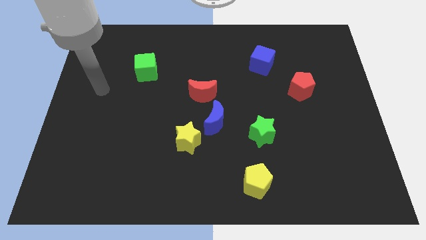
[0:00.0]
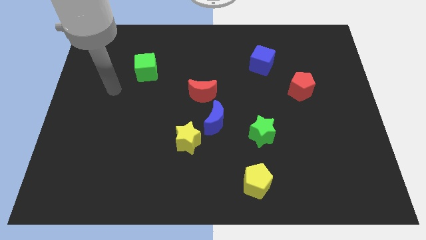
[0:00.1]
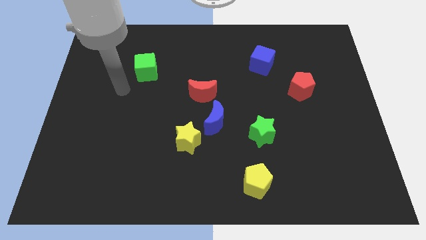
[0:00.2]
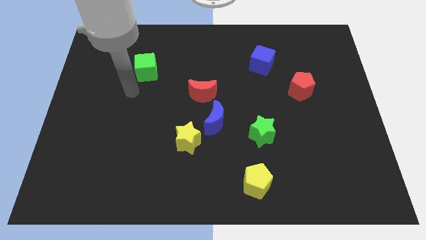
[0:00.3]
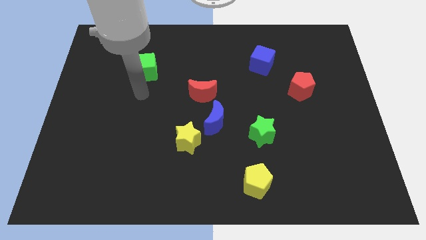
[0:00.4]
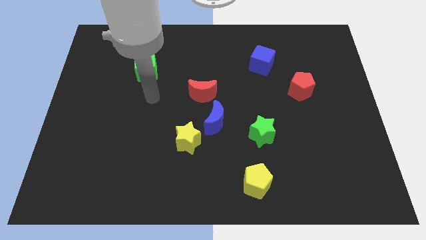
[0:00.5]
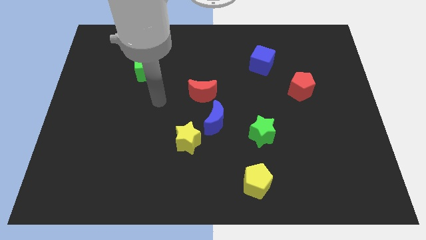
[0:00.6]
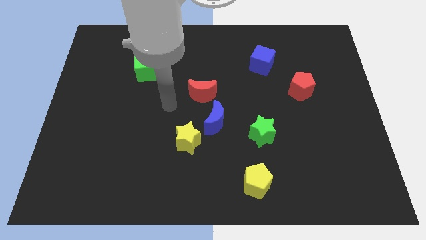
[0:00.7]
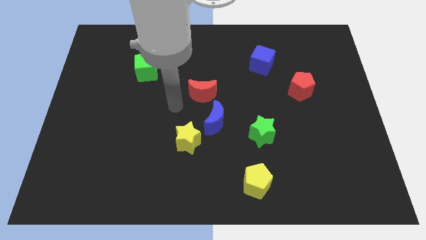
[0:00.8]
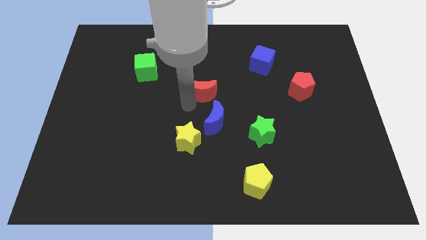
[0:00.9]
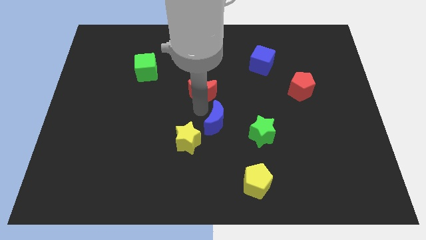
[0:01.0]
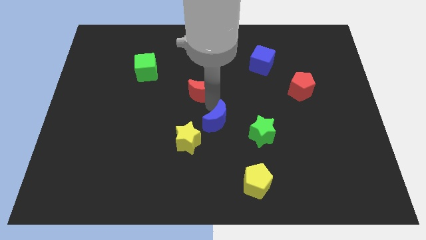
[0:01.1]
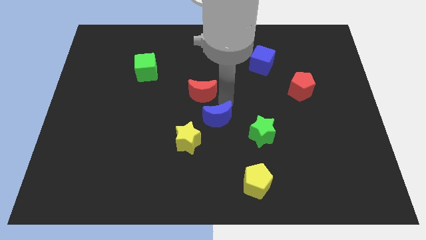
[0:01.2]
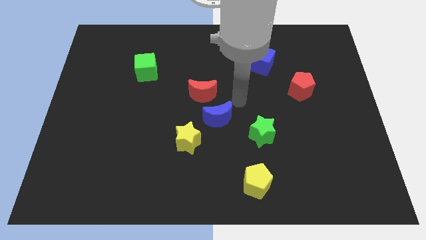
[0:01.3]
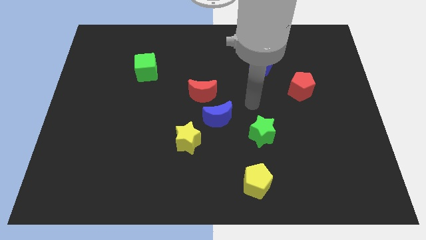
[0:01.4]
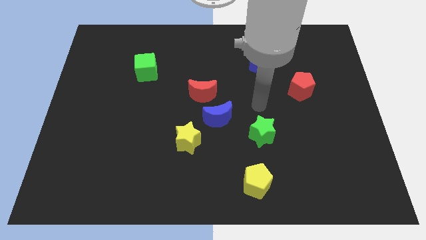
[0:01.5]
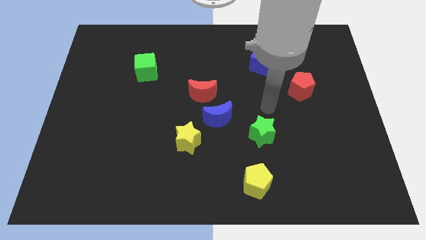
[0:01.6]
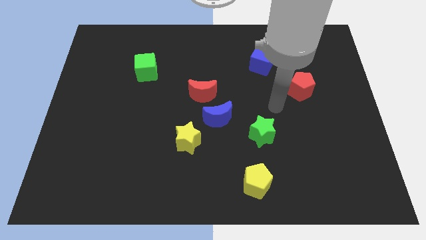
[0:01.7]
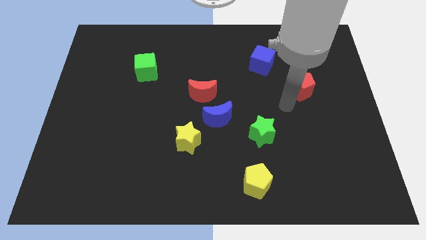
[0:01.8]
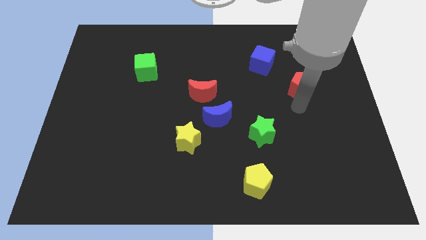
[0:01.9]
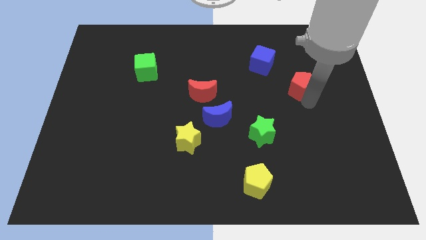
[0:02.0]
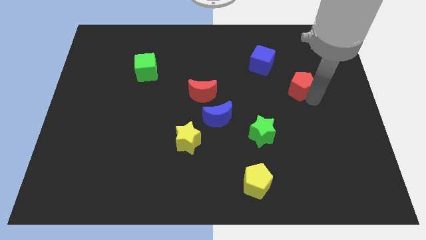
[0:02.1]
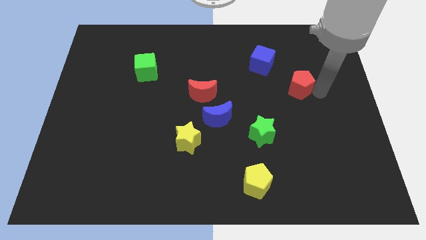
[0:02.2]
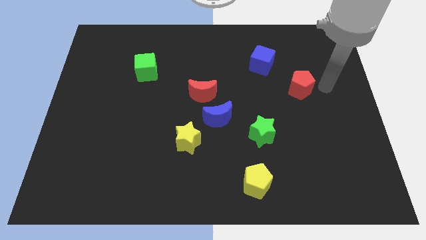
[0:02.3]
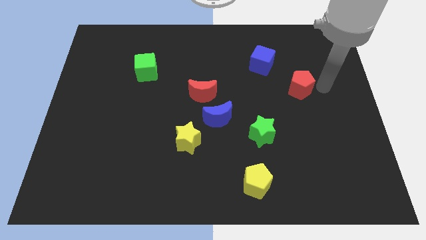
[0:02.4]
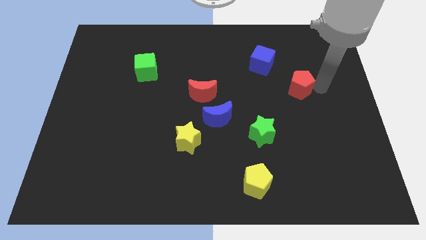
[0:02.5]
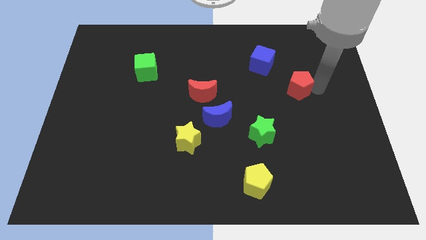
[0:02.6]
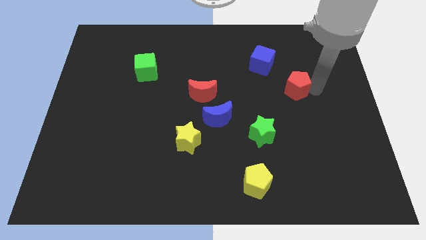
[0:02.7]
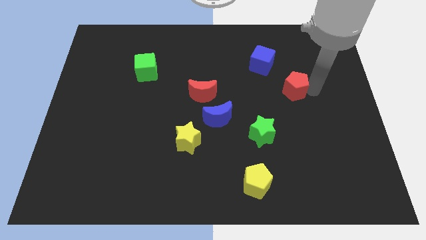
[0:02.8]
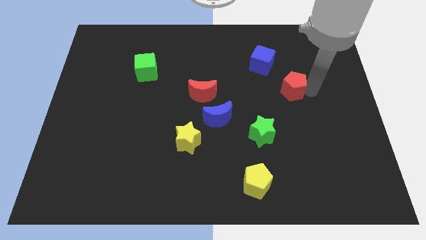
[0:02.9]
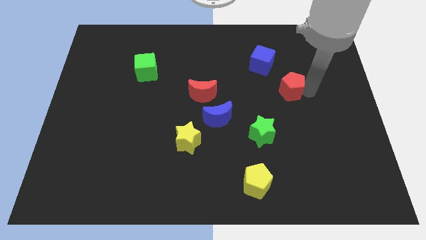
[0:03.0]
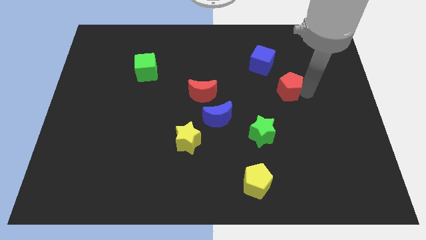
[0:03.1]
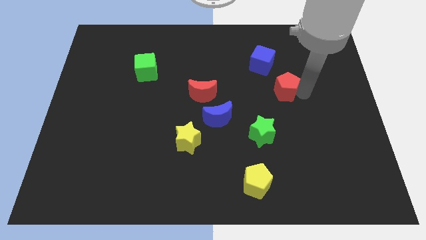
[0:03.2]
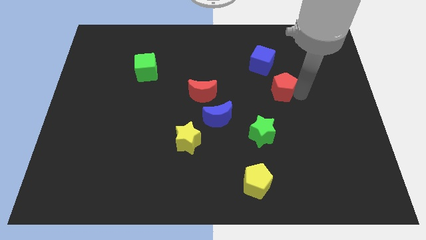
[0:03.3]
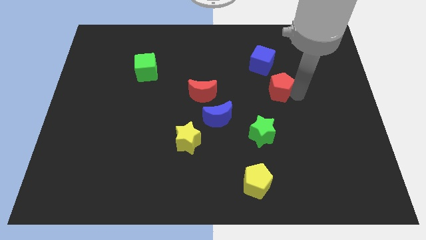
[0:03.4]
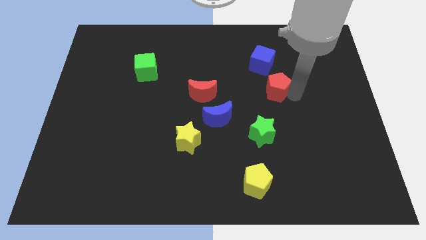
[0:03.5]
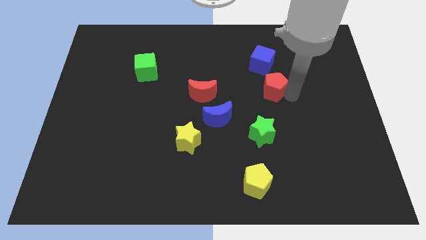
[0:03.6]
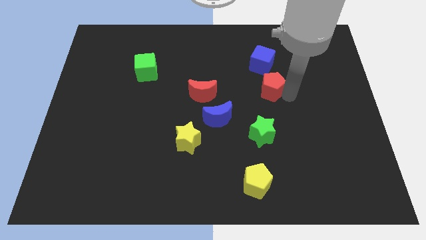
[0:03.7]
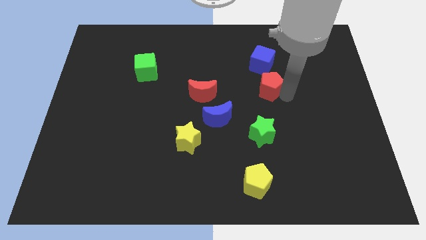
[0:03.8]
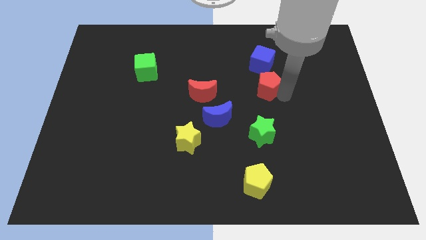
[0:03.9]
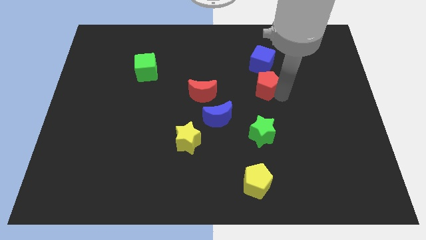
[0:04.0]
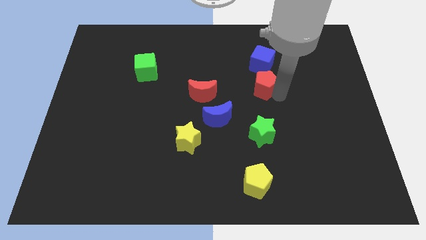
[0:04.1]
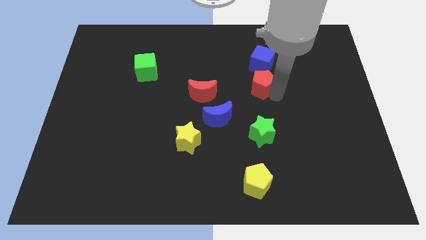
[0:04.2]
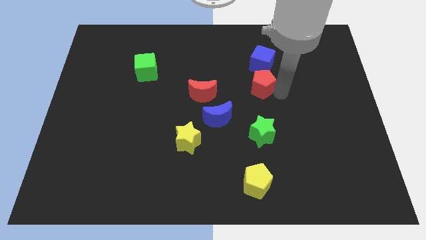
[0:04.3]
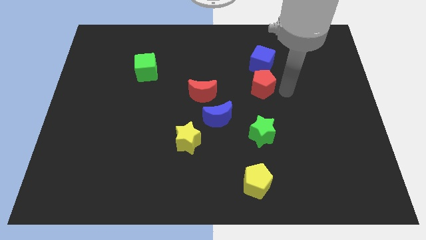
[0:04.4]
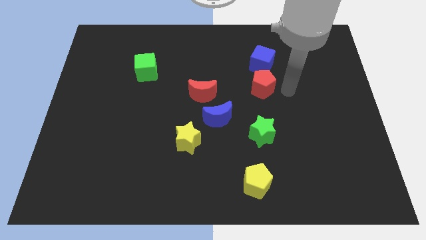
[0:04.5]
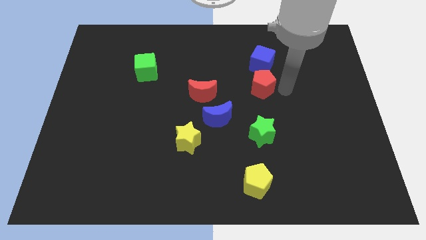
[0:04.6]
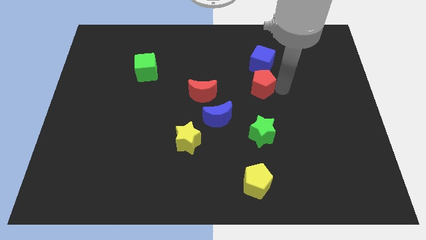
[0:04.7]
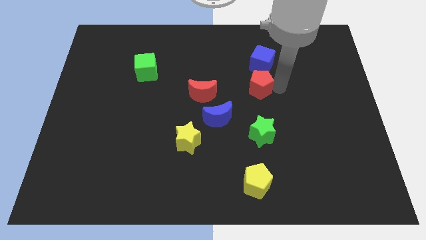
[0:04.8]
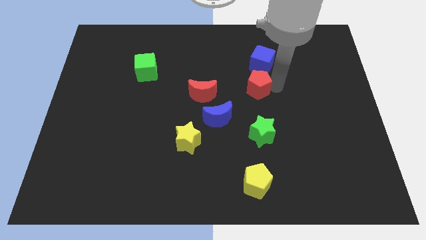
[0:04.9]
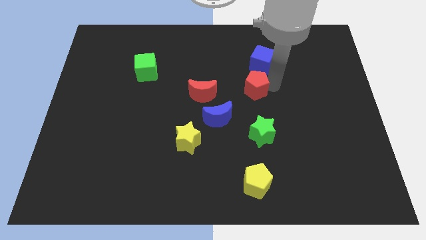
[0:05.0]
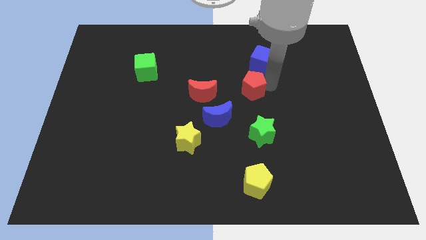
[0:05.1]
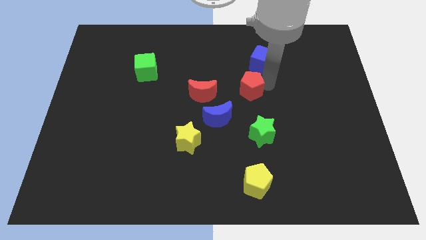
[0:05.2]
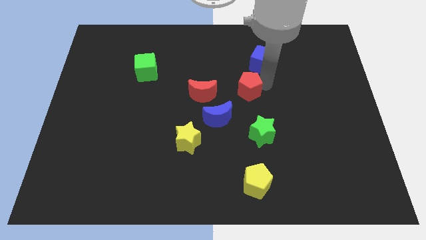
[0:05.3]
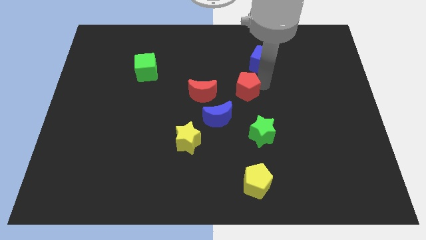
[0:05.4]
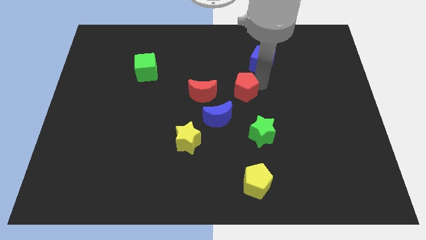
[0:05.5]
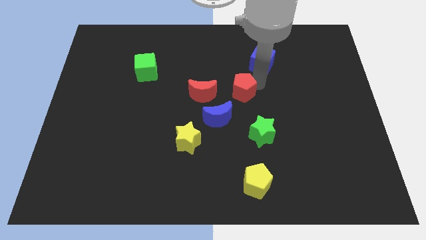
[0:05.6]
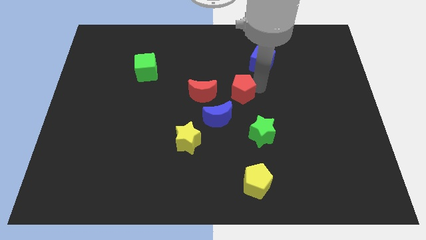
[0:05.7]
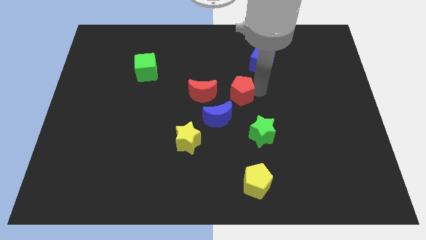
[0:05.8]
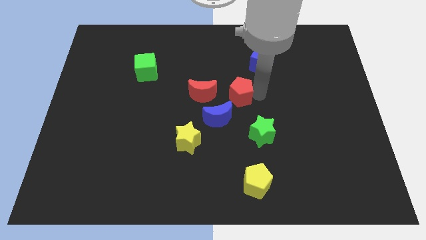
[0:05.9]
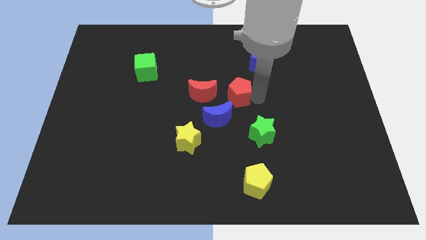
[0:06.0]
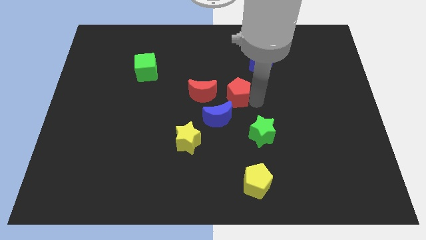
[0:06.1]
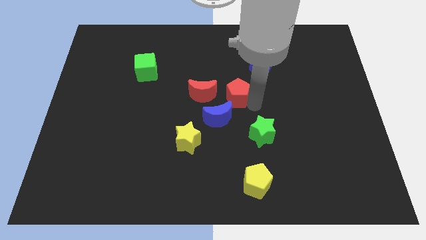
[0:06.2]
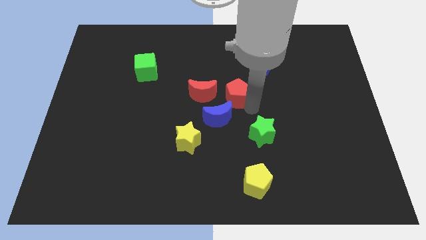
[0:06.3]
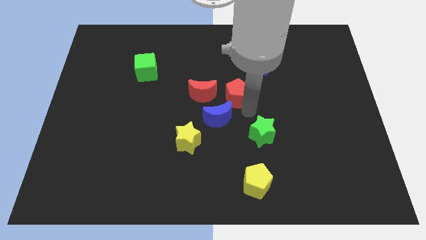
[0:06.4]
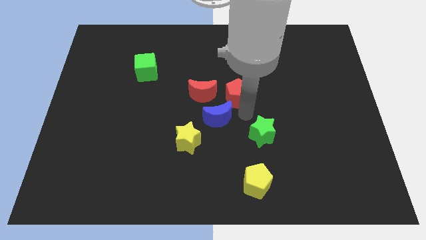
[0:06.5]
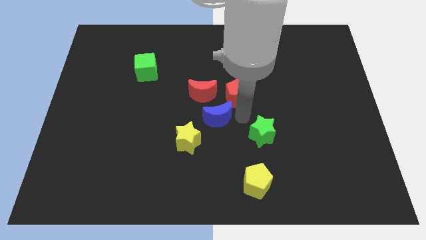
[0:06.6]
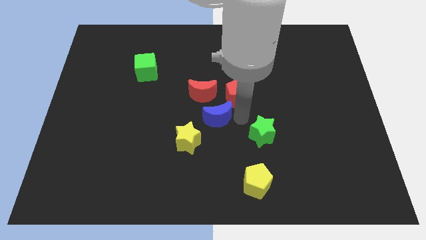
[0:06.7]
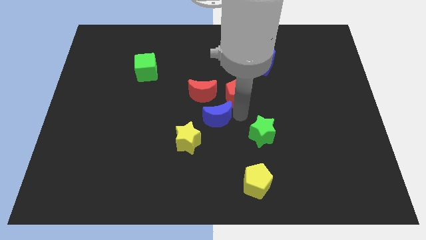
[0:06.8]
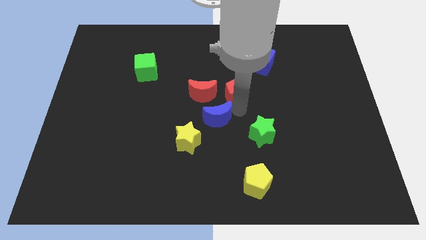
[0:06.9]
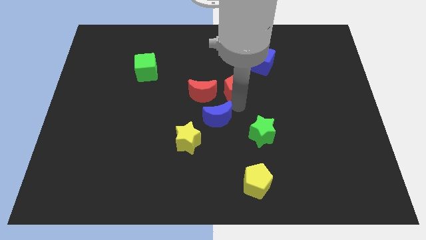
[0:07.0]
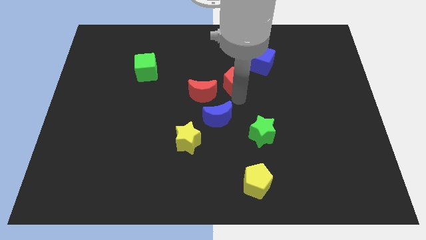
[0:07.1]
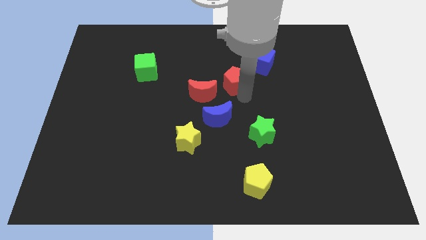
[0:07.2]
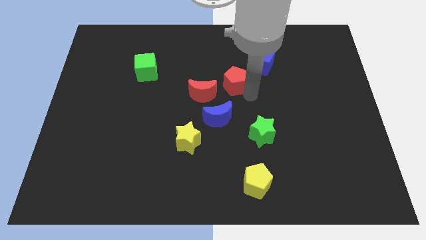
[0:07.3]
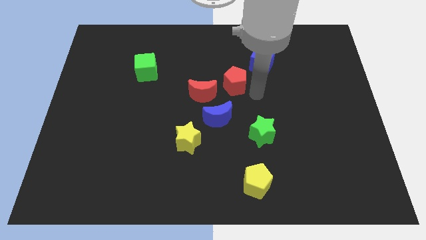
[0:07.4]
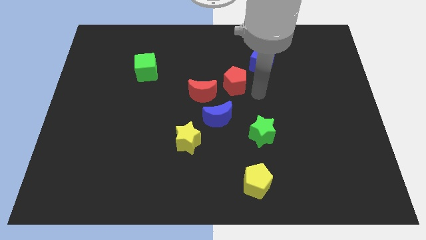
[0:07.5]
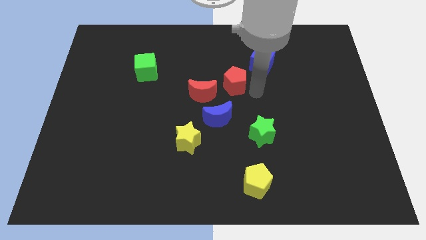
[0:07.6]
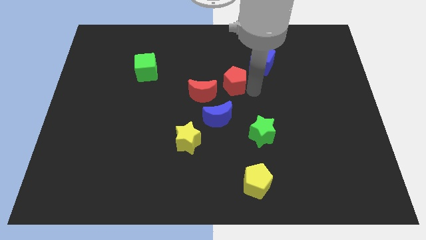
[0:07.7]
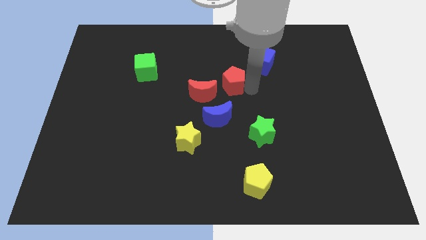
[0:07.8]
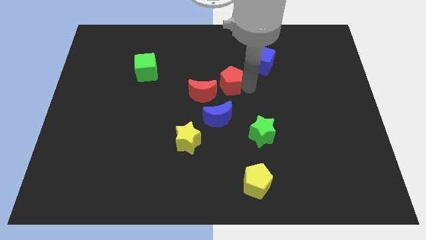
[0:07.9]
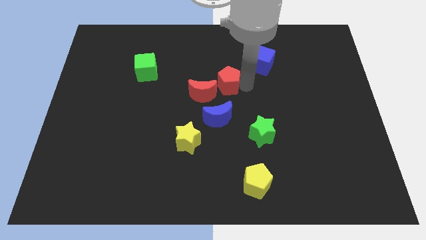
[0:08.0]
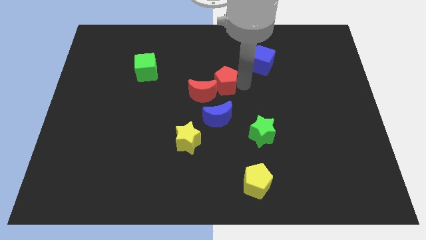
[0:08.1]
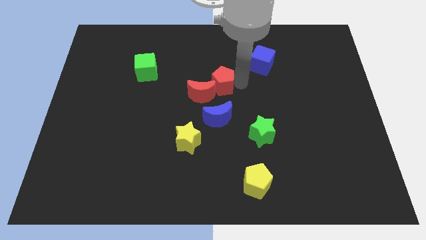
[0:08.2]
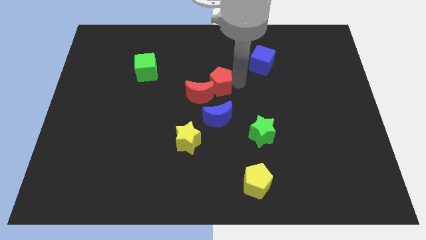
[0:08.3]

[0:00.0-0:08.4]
slide the red pentagon to the left
